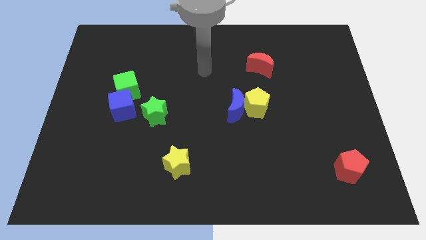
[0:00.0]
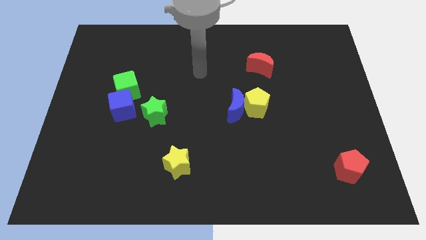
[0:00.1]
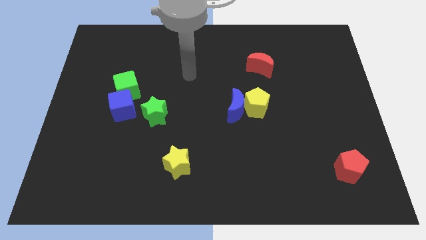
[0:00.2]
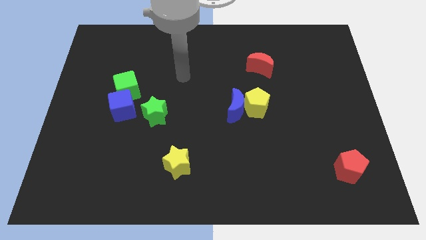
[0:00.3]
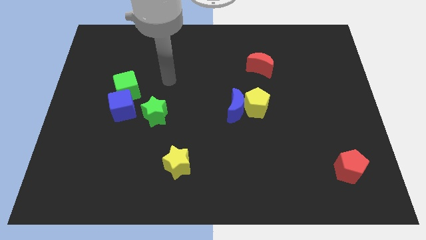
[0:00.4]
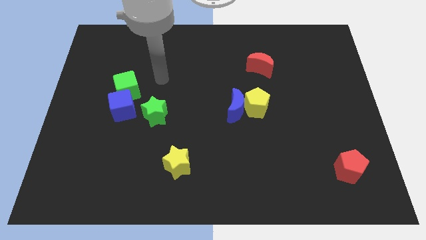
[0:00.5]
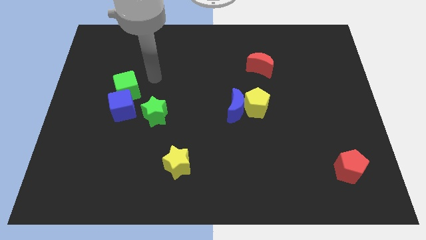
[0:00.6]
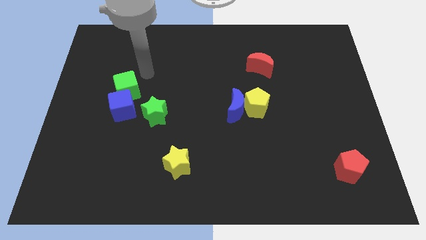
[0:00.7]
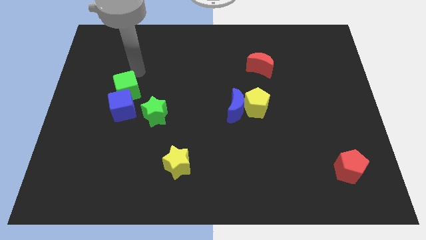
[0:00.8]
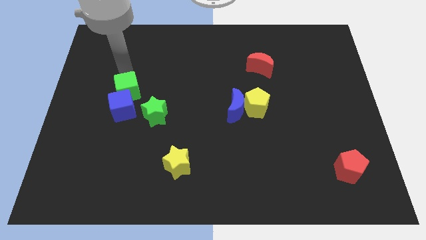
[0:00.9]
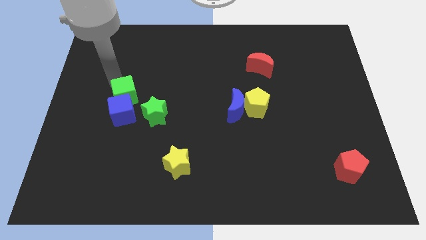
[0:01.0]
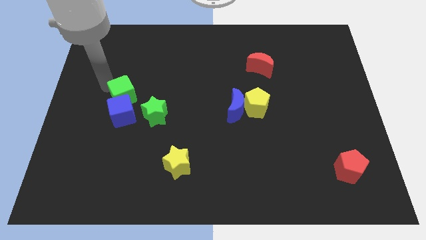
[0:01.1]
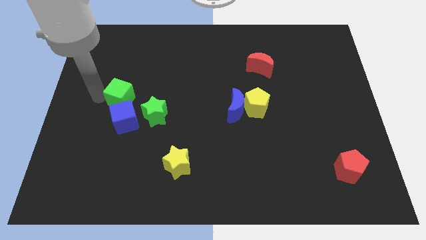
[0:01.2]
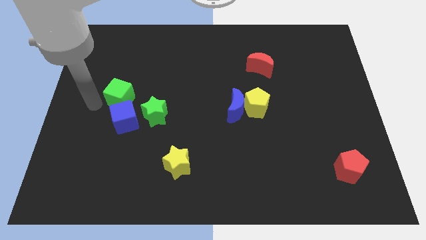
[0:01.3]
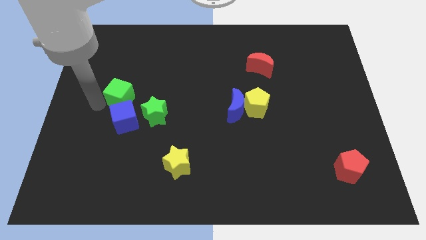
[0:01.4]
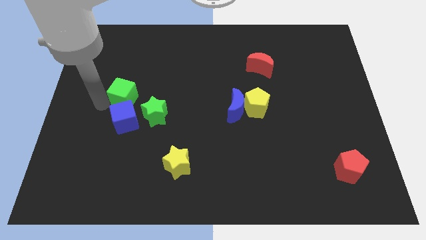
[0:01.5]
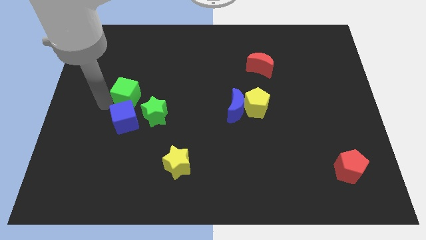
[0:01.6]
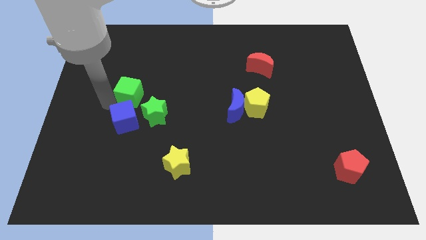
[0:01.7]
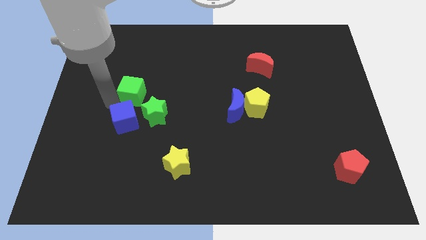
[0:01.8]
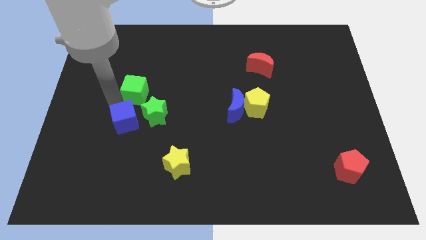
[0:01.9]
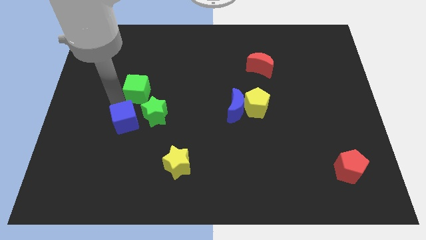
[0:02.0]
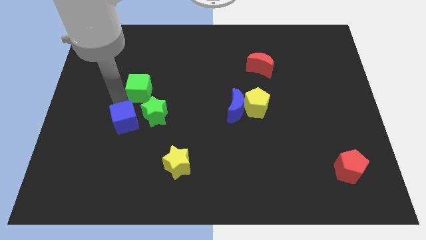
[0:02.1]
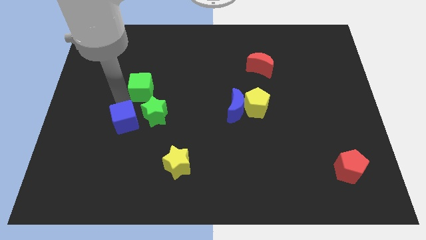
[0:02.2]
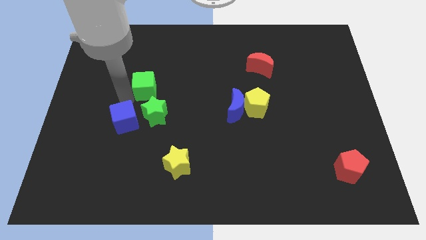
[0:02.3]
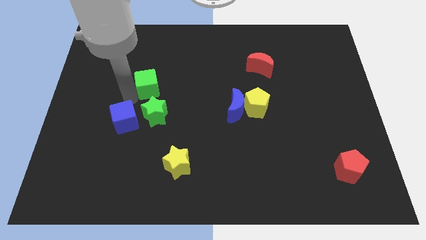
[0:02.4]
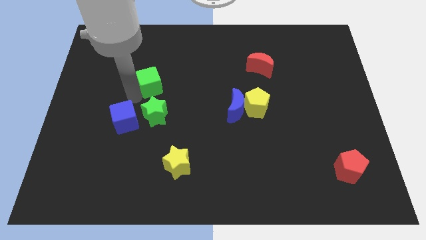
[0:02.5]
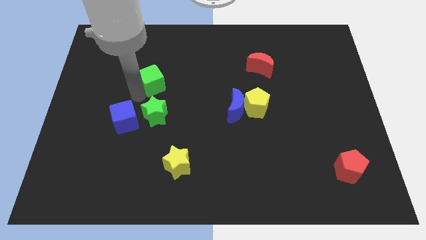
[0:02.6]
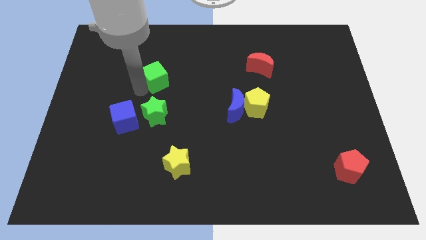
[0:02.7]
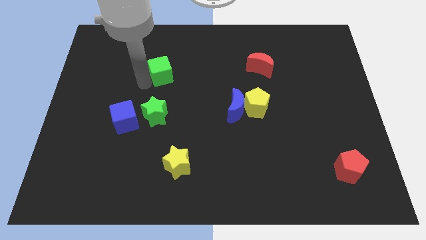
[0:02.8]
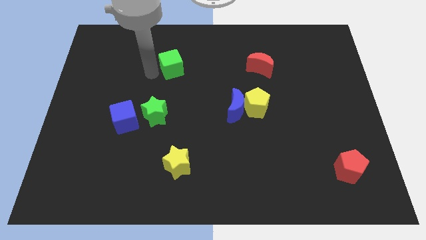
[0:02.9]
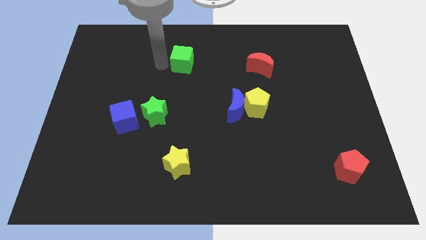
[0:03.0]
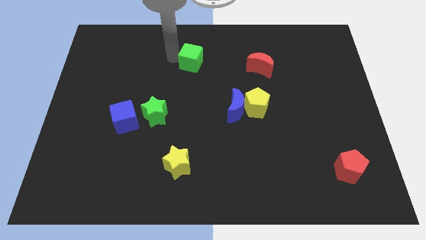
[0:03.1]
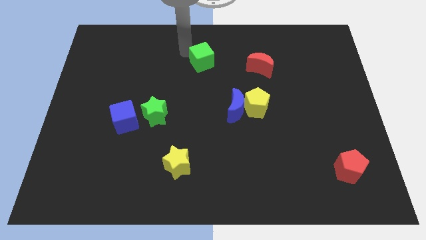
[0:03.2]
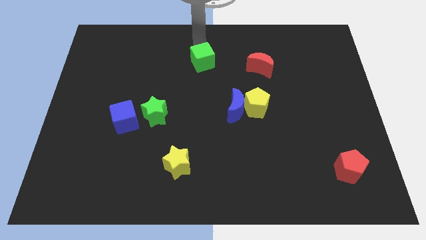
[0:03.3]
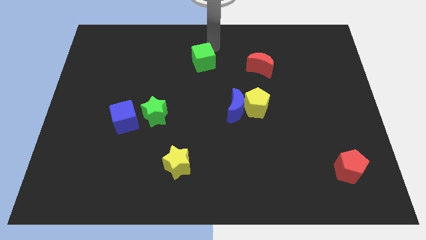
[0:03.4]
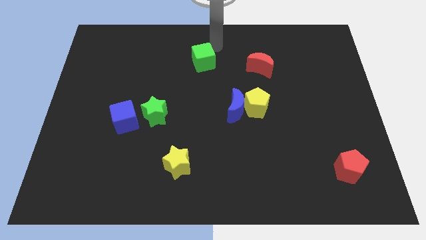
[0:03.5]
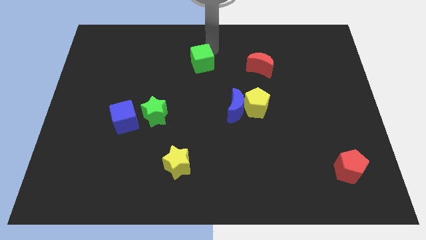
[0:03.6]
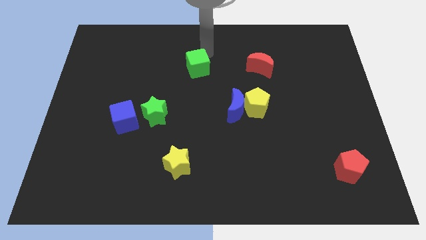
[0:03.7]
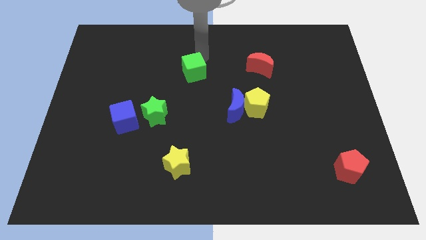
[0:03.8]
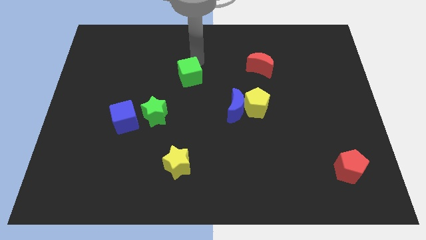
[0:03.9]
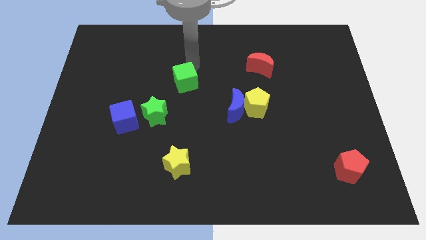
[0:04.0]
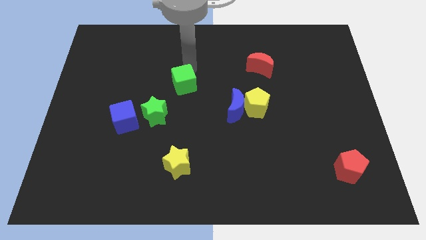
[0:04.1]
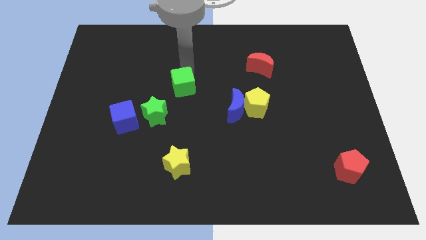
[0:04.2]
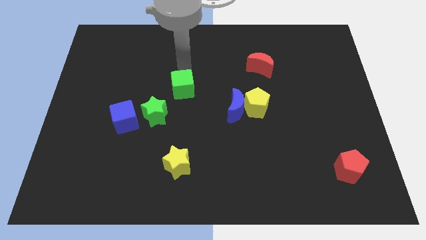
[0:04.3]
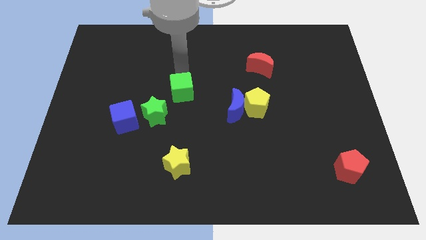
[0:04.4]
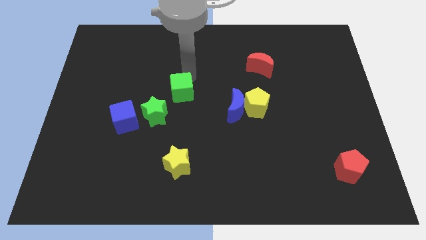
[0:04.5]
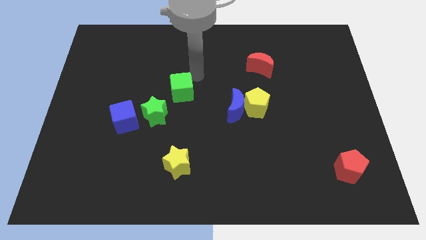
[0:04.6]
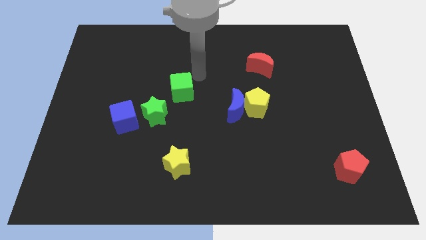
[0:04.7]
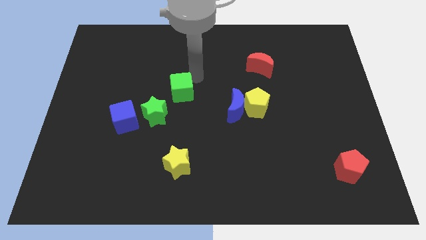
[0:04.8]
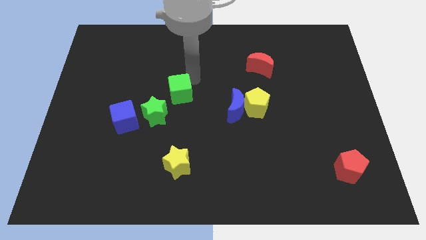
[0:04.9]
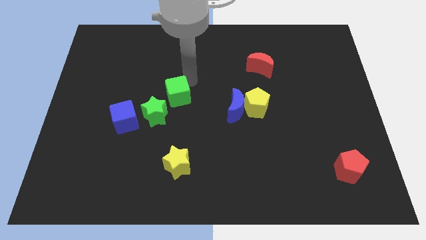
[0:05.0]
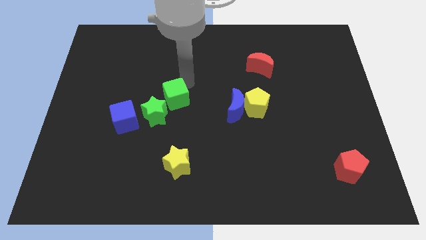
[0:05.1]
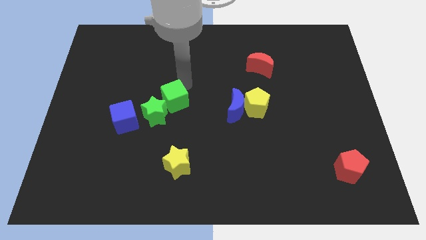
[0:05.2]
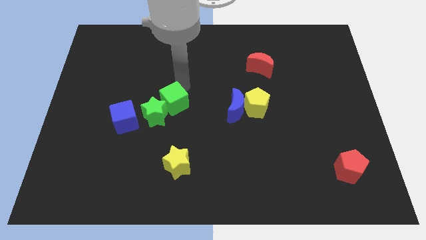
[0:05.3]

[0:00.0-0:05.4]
slide the green cube to the green star

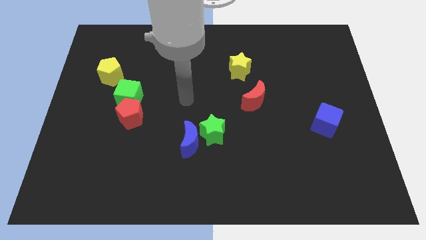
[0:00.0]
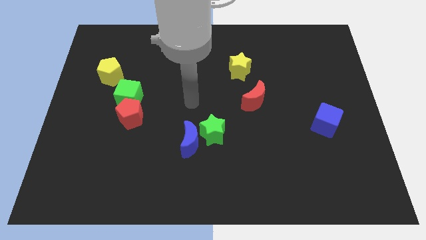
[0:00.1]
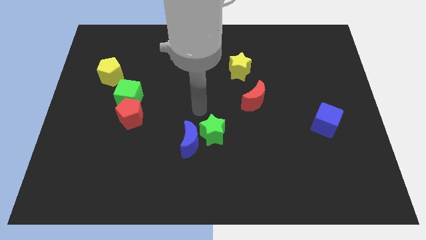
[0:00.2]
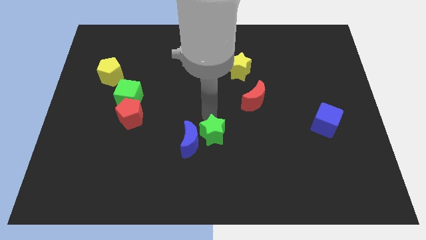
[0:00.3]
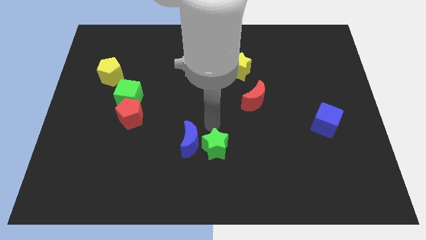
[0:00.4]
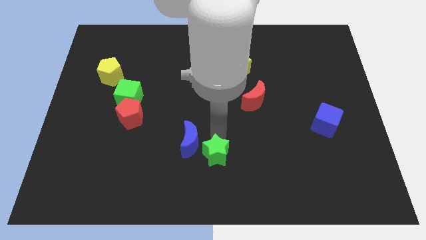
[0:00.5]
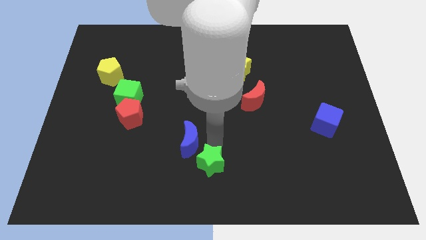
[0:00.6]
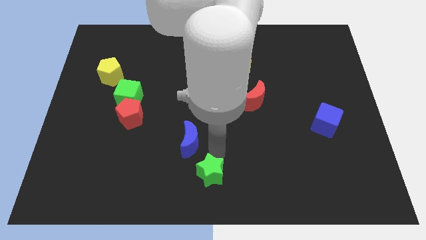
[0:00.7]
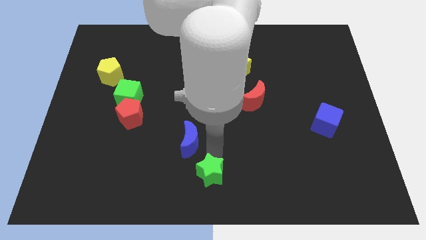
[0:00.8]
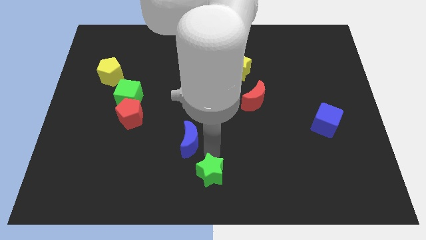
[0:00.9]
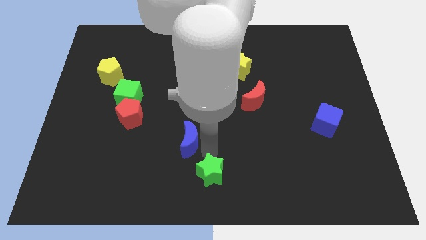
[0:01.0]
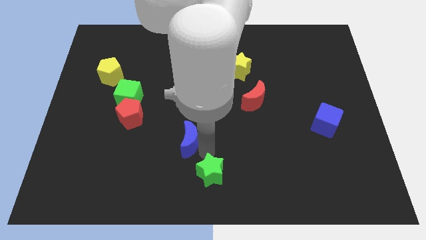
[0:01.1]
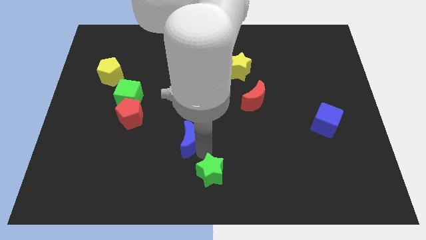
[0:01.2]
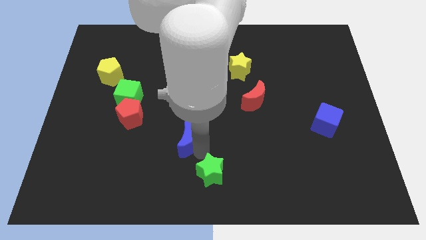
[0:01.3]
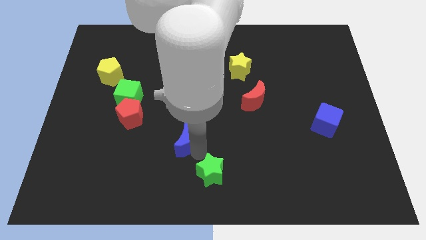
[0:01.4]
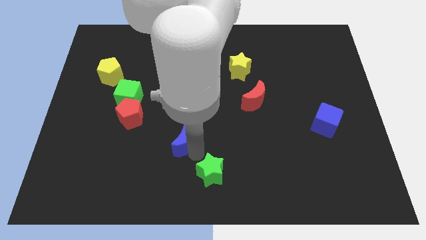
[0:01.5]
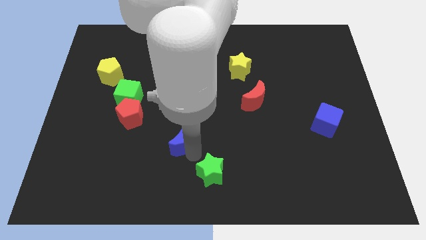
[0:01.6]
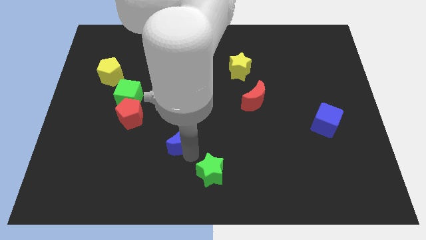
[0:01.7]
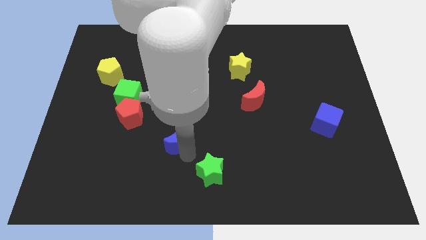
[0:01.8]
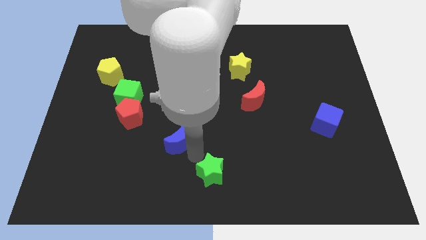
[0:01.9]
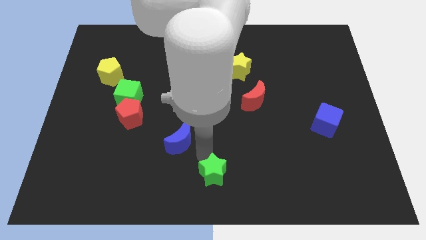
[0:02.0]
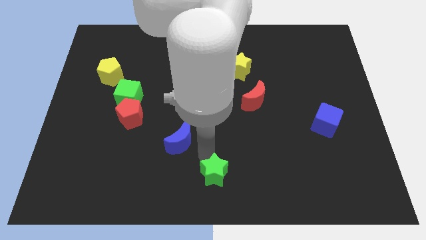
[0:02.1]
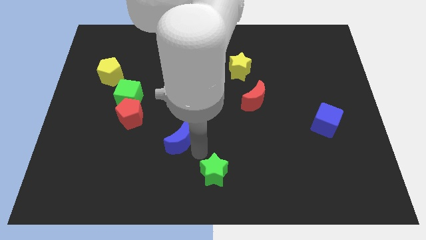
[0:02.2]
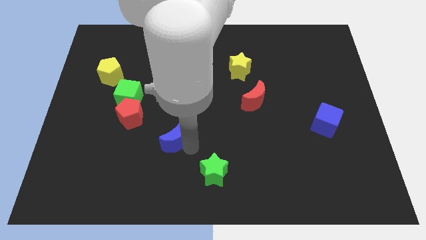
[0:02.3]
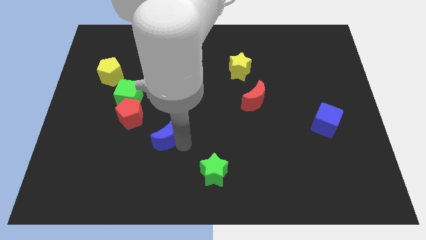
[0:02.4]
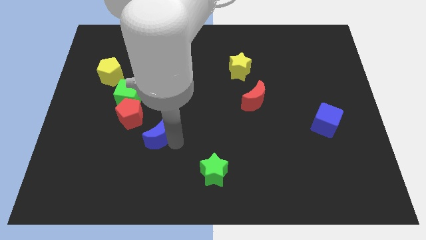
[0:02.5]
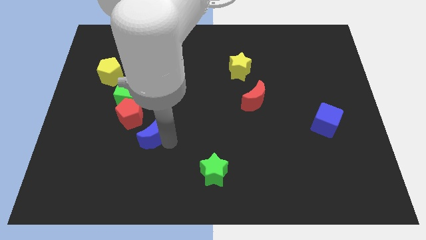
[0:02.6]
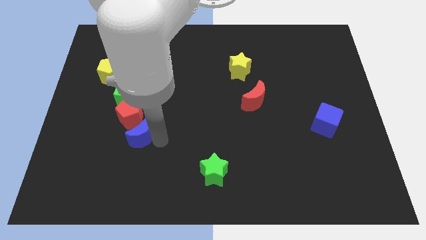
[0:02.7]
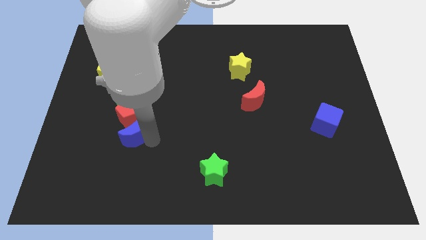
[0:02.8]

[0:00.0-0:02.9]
push the blue moon close to the red pentagon
